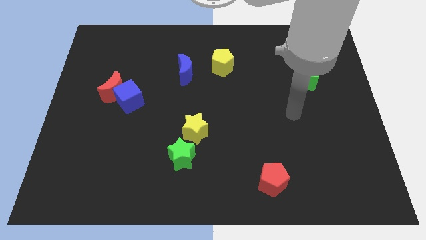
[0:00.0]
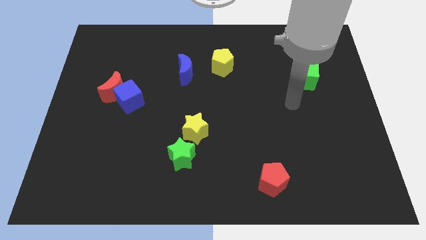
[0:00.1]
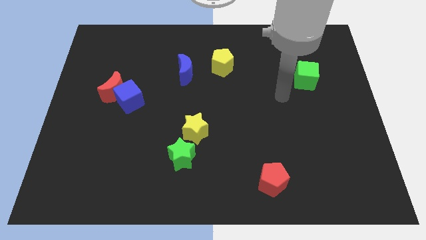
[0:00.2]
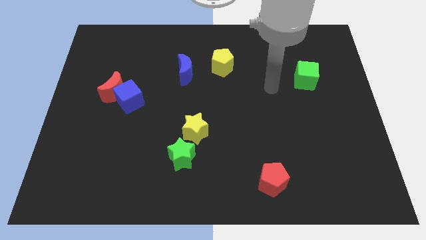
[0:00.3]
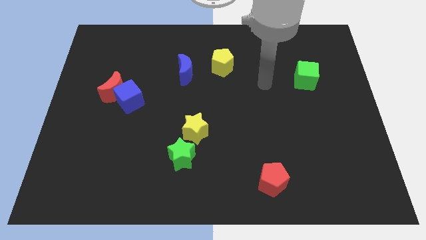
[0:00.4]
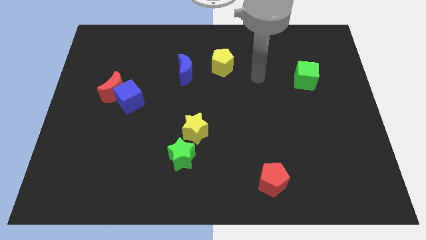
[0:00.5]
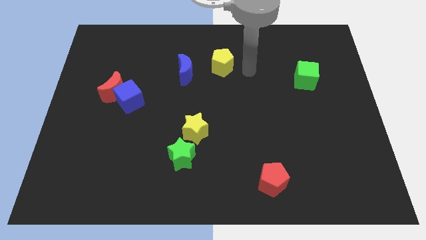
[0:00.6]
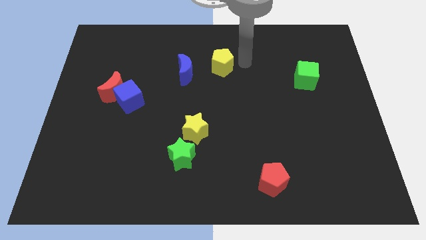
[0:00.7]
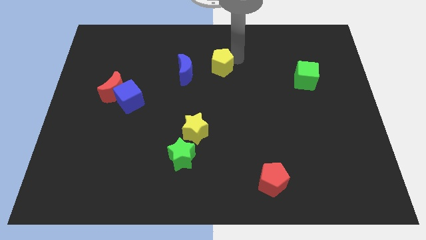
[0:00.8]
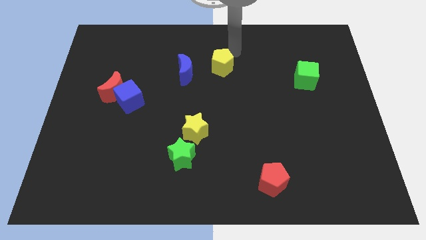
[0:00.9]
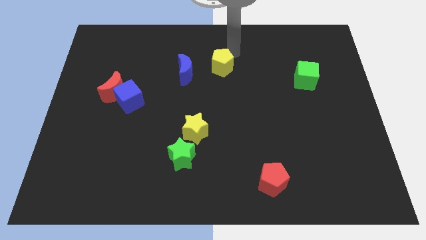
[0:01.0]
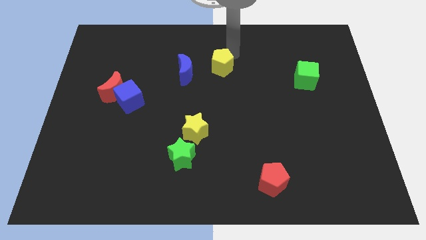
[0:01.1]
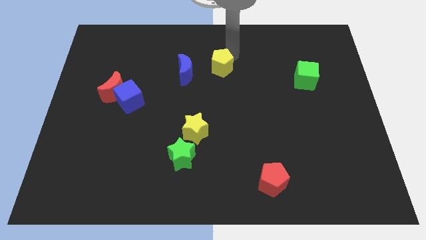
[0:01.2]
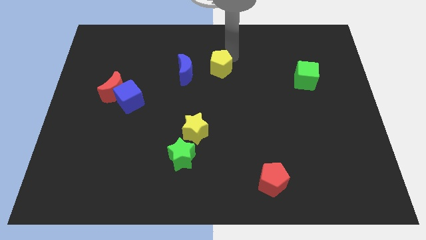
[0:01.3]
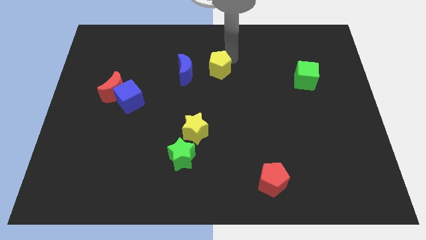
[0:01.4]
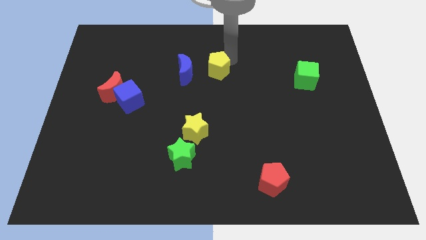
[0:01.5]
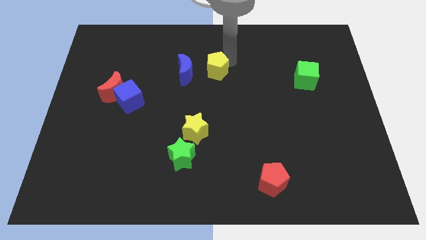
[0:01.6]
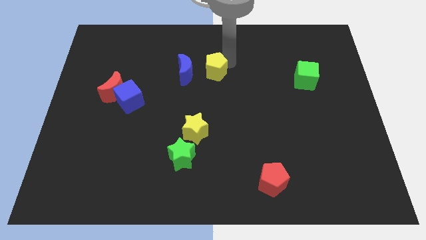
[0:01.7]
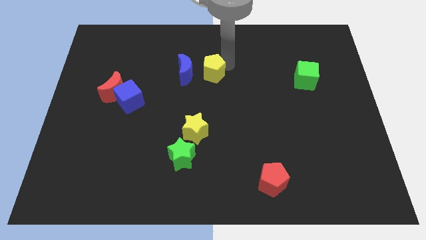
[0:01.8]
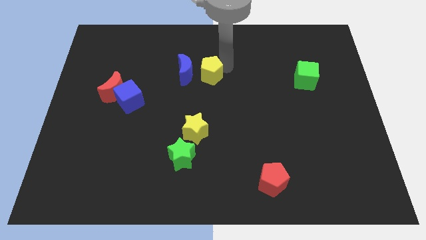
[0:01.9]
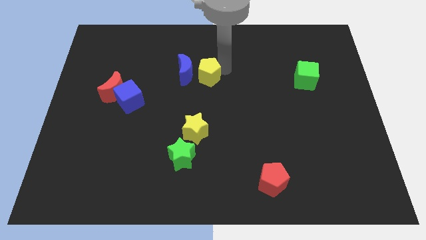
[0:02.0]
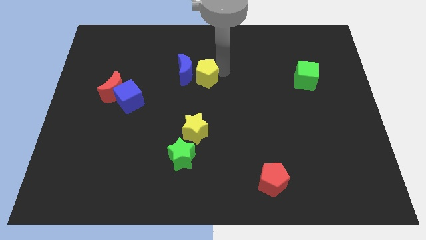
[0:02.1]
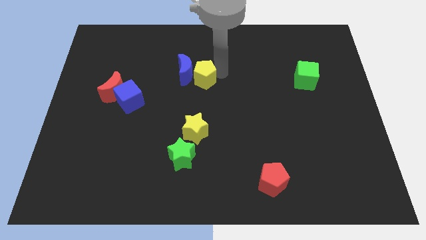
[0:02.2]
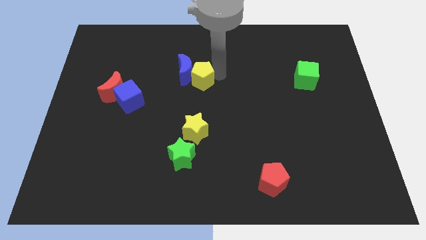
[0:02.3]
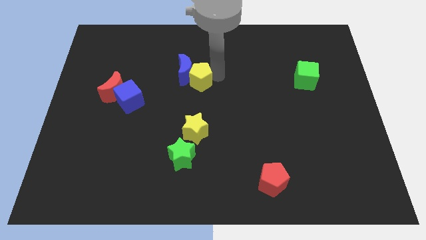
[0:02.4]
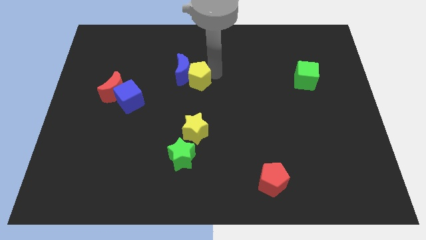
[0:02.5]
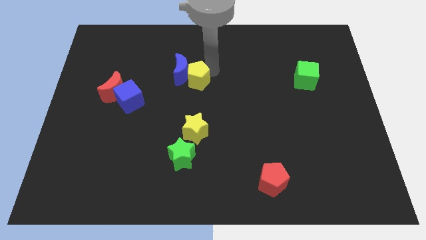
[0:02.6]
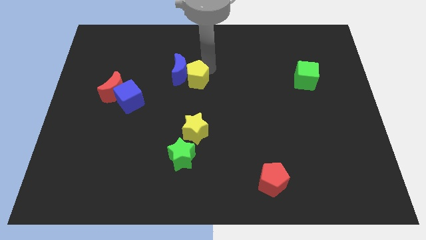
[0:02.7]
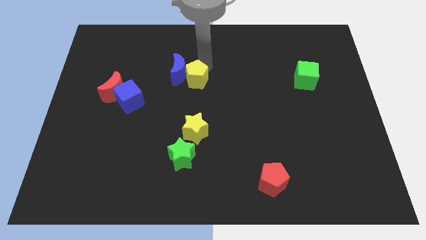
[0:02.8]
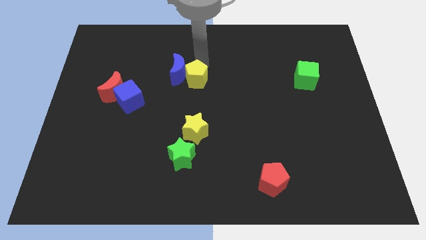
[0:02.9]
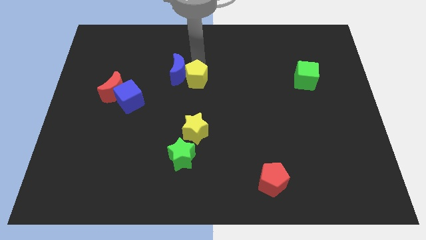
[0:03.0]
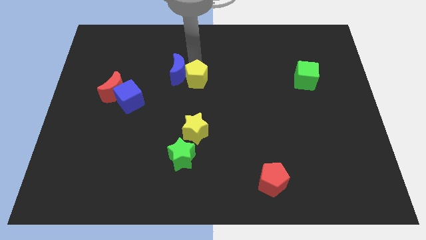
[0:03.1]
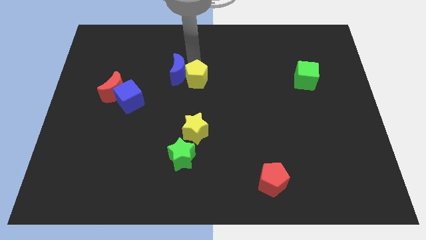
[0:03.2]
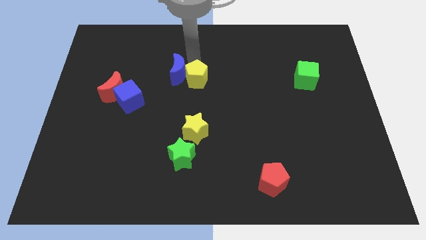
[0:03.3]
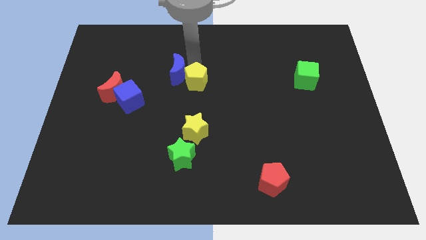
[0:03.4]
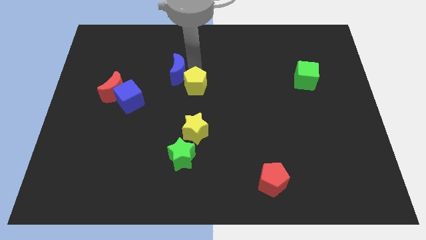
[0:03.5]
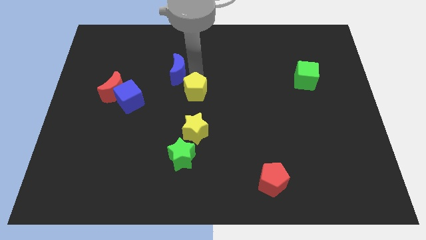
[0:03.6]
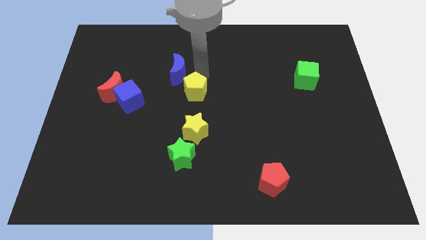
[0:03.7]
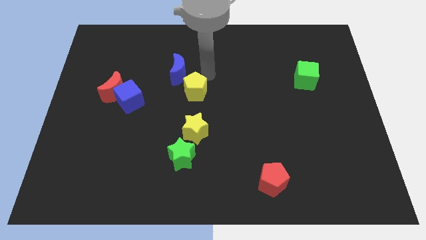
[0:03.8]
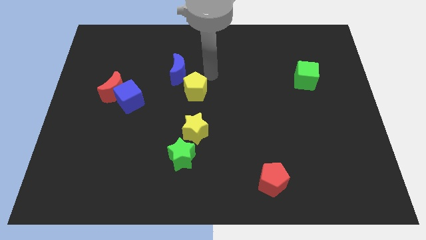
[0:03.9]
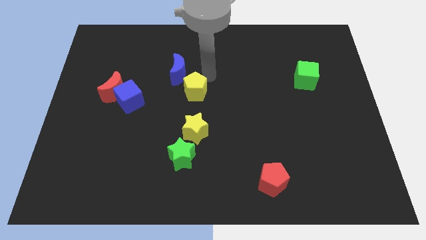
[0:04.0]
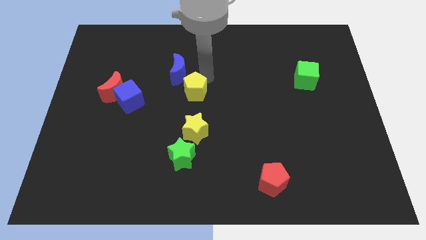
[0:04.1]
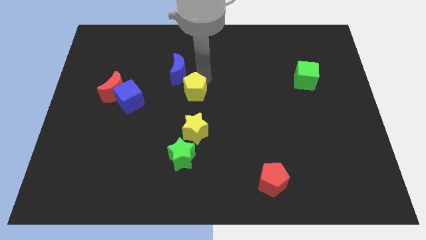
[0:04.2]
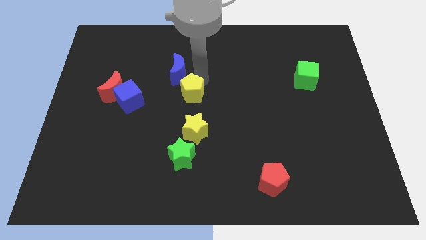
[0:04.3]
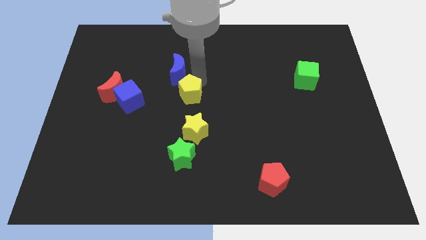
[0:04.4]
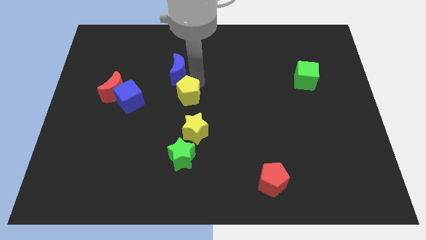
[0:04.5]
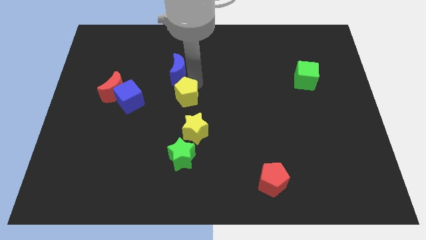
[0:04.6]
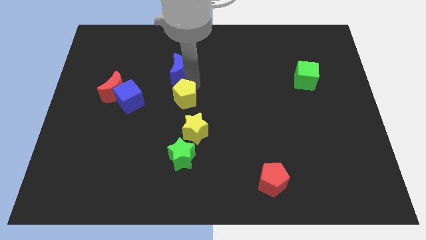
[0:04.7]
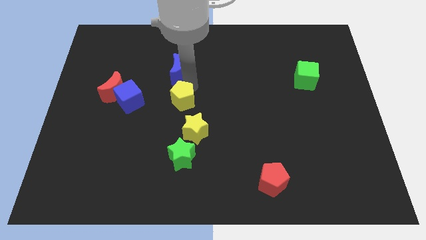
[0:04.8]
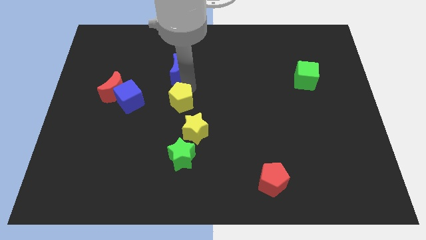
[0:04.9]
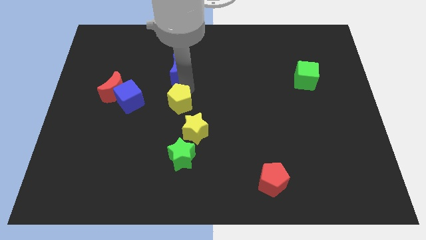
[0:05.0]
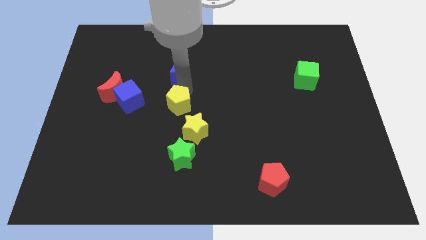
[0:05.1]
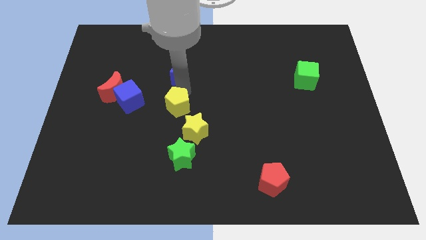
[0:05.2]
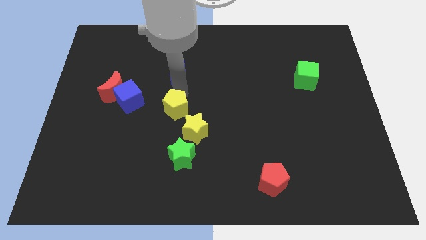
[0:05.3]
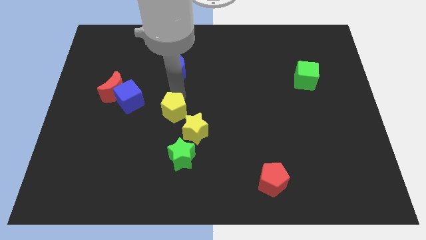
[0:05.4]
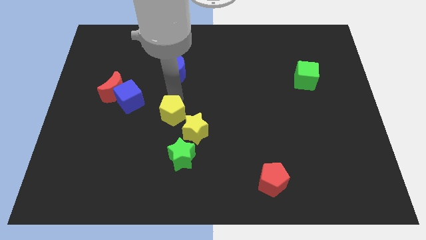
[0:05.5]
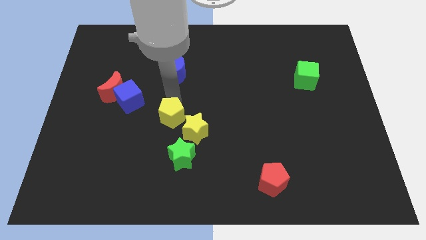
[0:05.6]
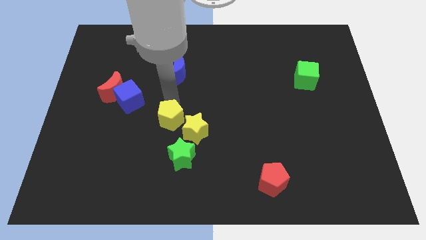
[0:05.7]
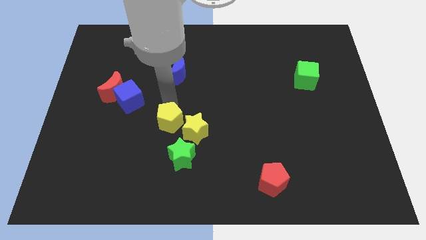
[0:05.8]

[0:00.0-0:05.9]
slide the yellow pentagon to the top left side of the green star

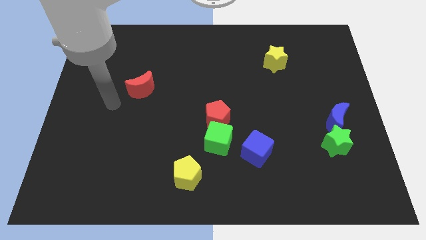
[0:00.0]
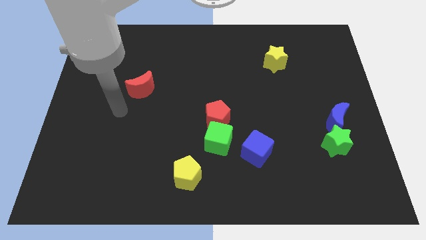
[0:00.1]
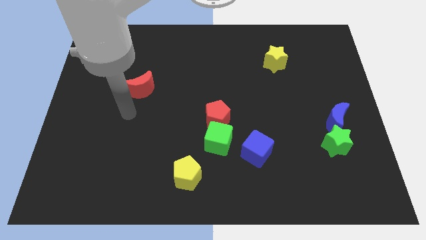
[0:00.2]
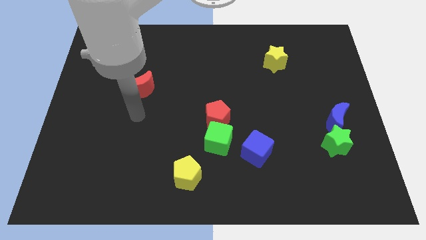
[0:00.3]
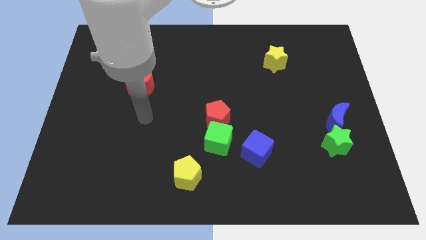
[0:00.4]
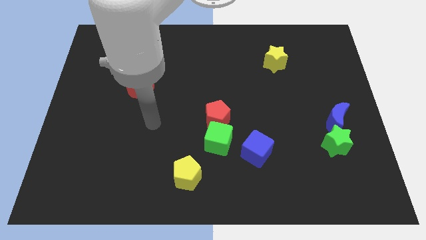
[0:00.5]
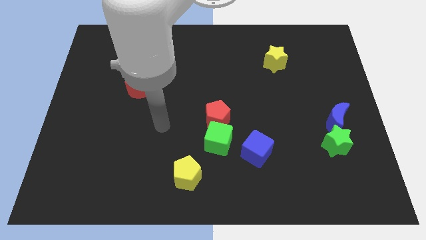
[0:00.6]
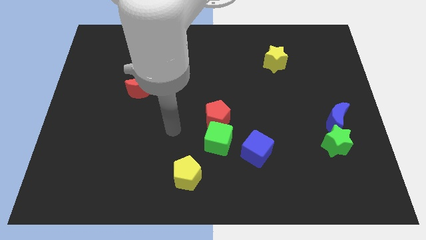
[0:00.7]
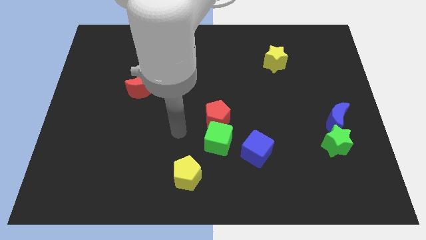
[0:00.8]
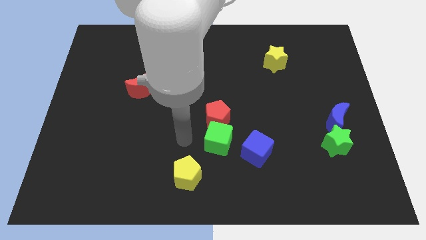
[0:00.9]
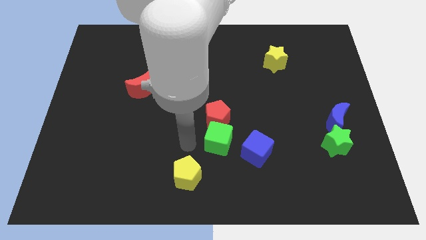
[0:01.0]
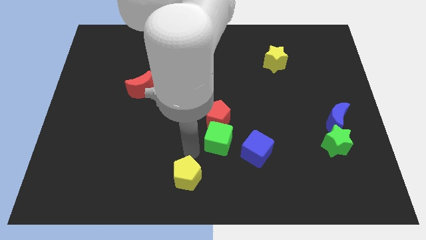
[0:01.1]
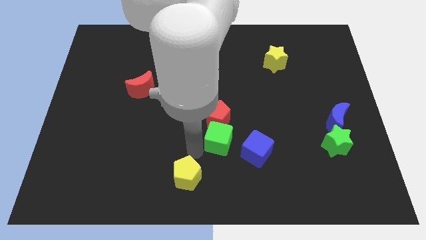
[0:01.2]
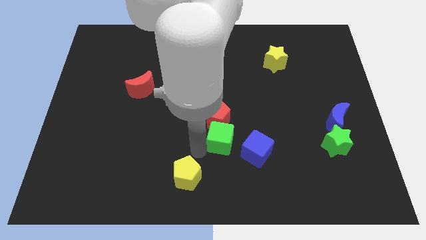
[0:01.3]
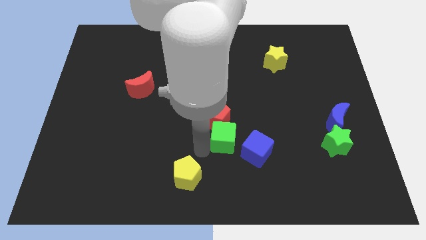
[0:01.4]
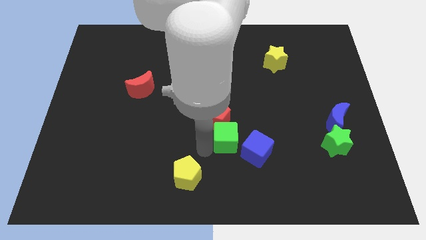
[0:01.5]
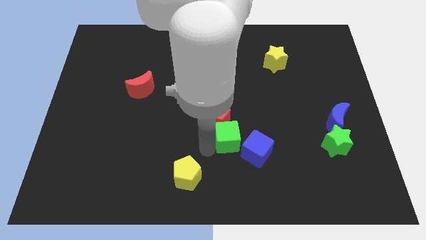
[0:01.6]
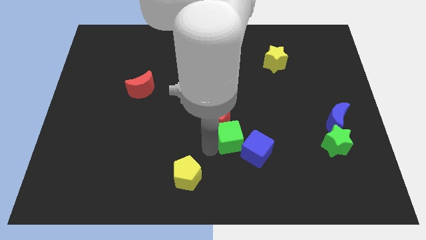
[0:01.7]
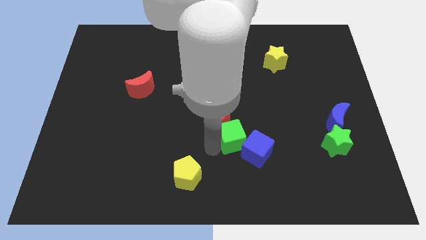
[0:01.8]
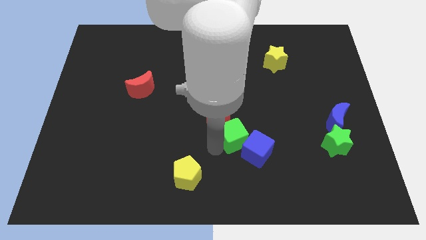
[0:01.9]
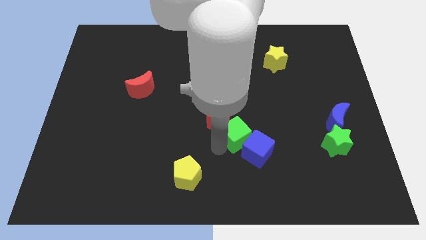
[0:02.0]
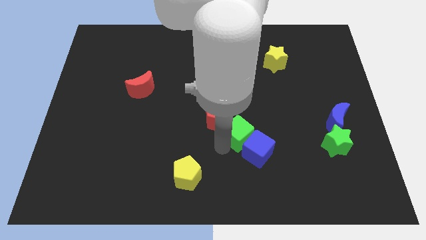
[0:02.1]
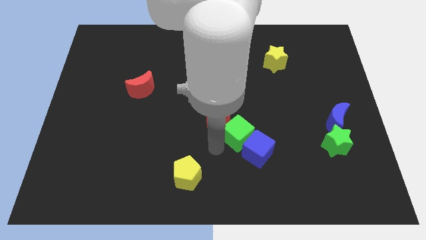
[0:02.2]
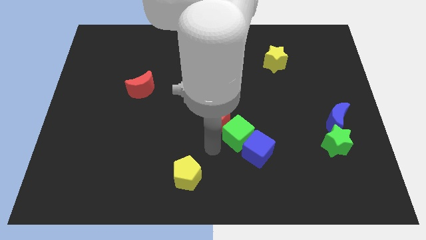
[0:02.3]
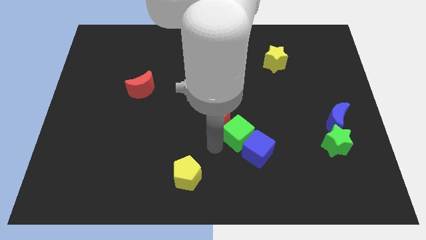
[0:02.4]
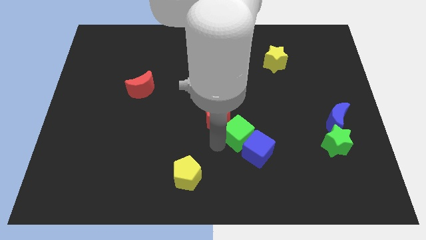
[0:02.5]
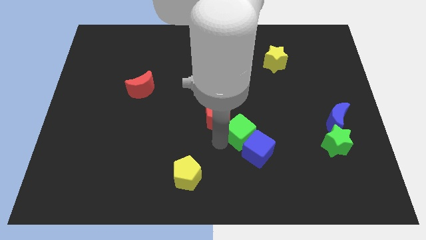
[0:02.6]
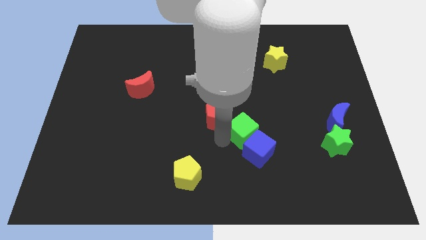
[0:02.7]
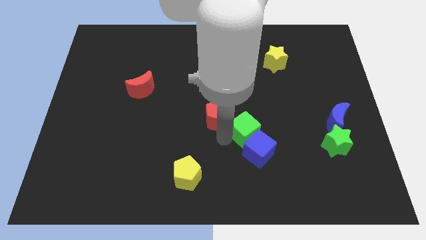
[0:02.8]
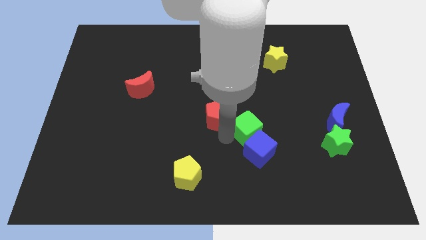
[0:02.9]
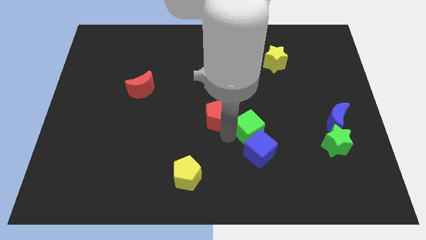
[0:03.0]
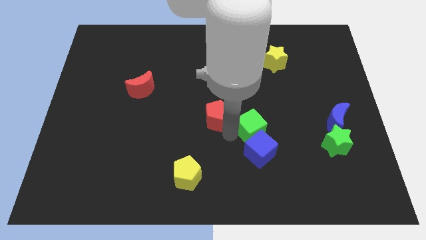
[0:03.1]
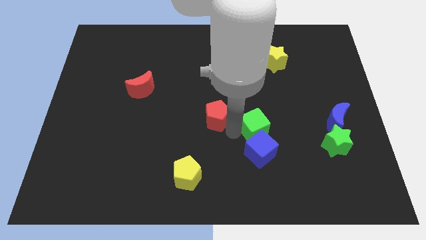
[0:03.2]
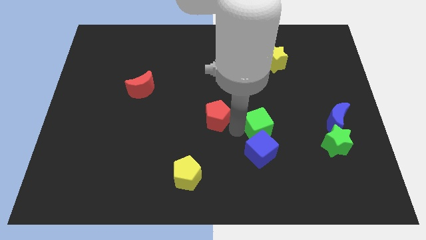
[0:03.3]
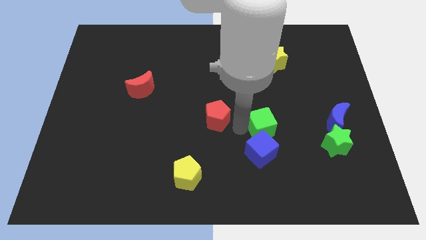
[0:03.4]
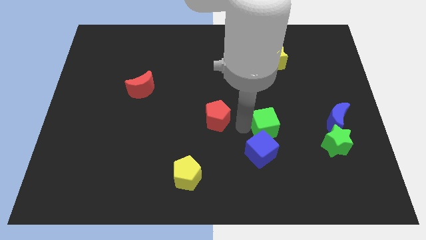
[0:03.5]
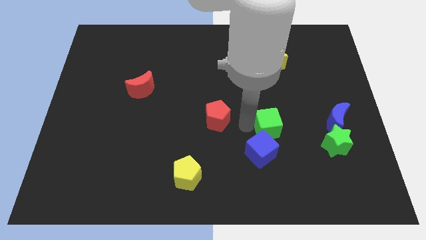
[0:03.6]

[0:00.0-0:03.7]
move the green cube to the left of the blue moon
